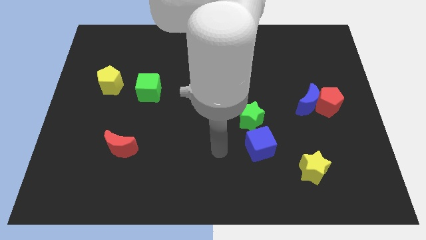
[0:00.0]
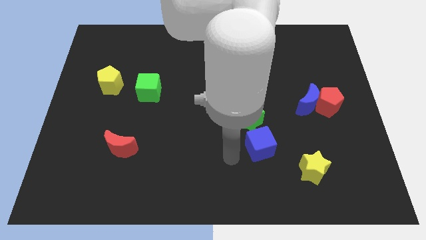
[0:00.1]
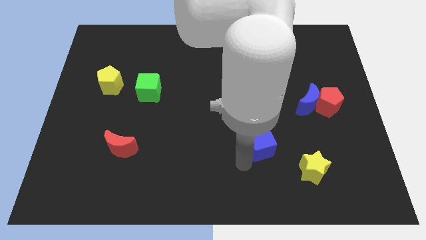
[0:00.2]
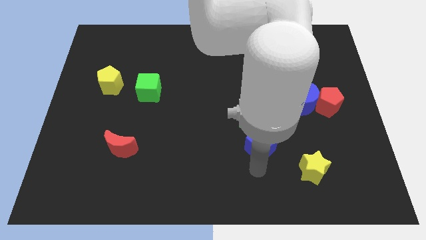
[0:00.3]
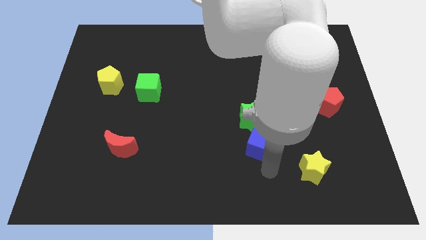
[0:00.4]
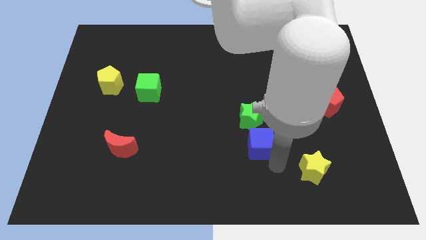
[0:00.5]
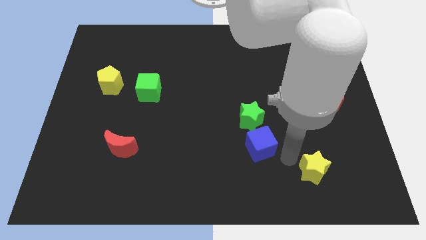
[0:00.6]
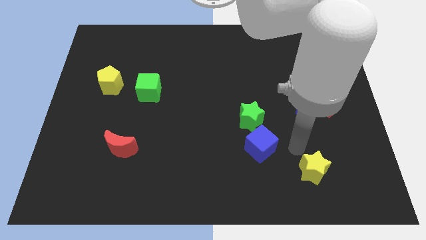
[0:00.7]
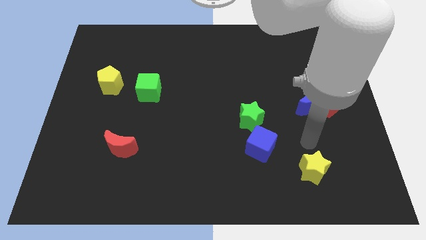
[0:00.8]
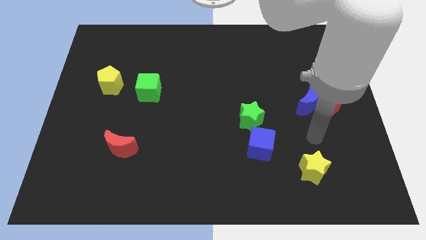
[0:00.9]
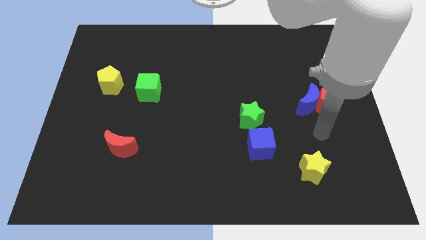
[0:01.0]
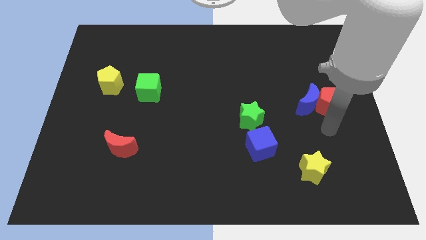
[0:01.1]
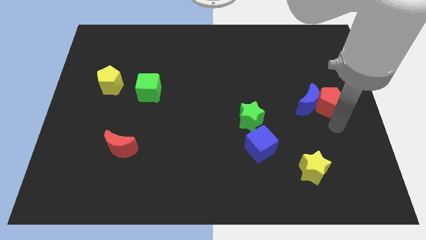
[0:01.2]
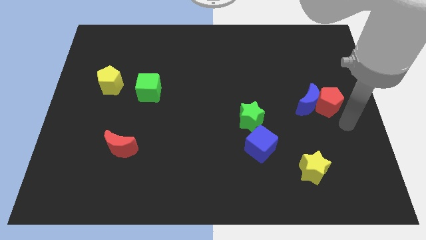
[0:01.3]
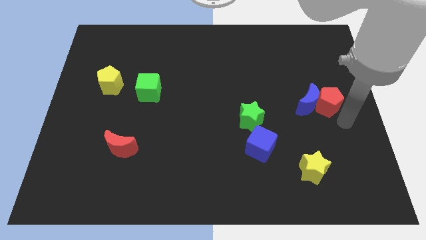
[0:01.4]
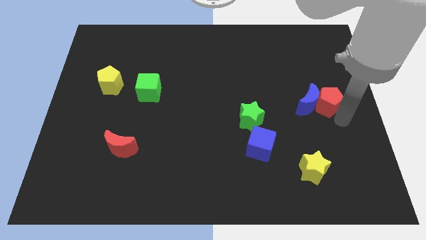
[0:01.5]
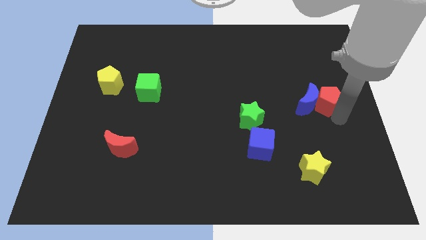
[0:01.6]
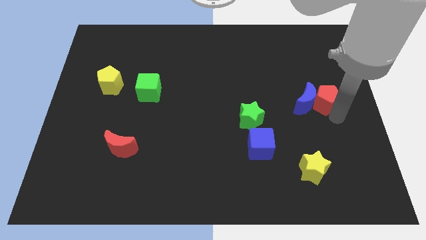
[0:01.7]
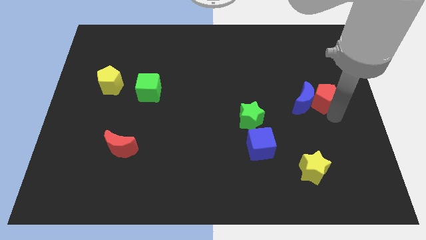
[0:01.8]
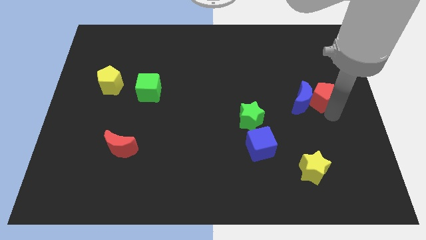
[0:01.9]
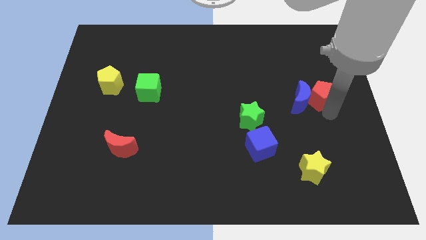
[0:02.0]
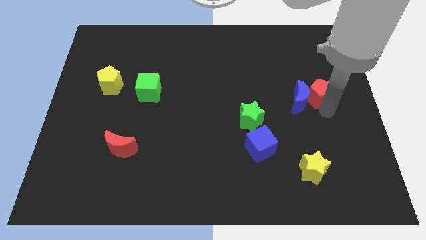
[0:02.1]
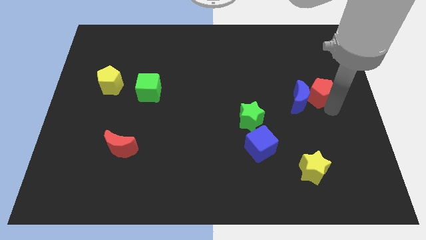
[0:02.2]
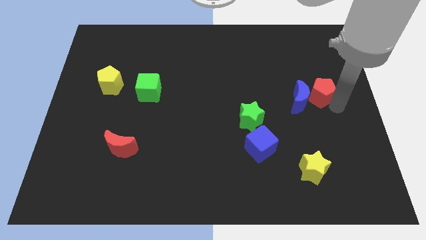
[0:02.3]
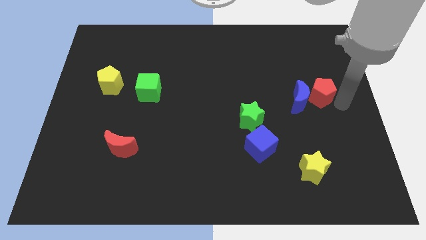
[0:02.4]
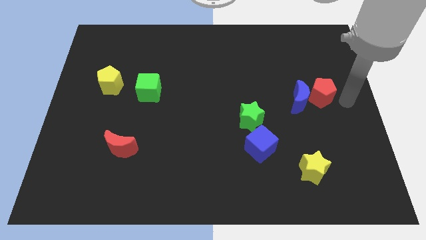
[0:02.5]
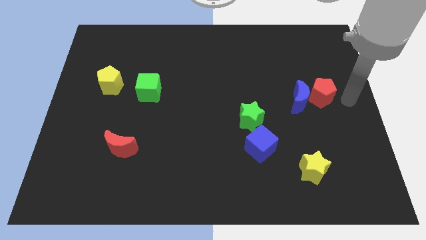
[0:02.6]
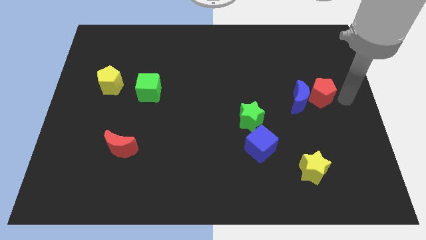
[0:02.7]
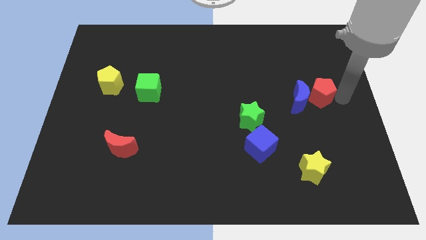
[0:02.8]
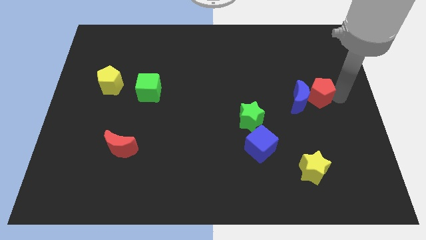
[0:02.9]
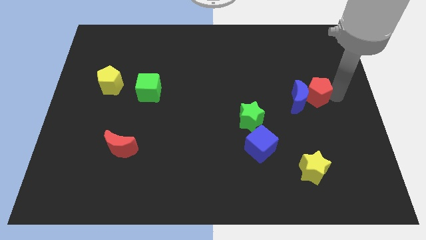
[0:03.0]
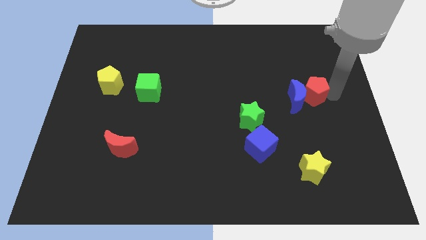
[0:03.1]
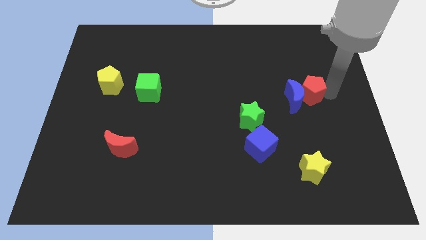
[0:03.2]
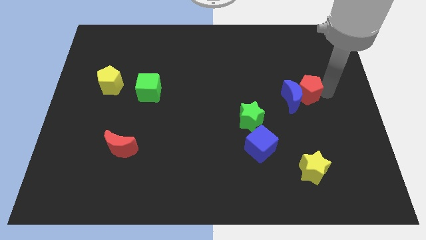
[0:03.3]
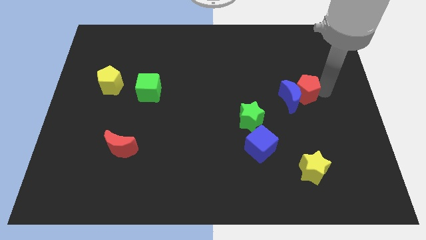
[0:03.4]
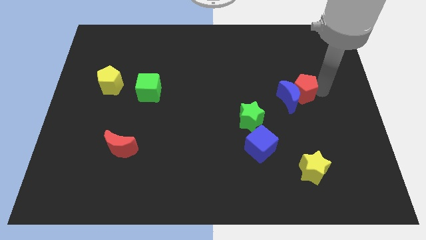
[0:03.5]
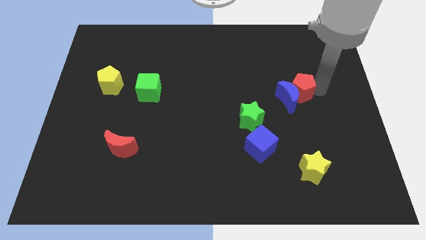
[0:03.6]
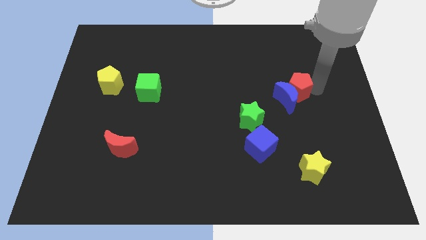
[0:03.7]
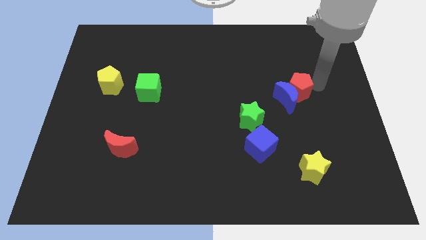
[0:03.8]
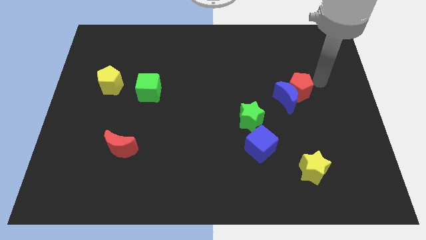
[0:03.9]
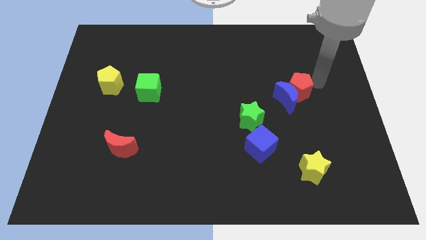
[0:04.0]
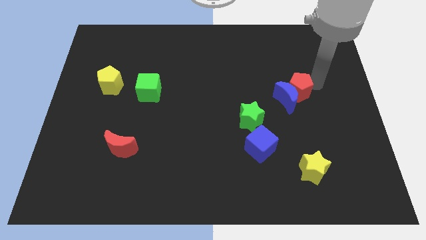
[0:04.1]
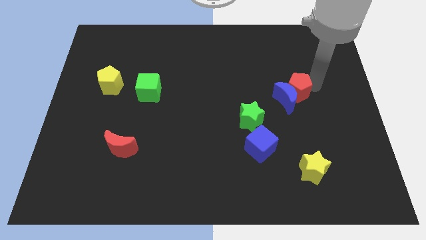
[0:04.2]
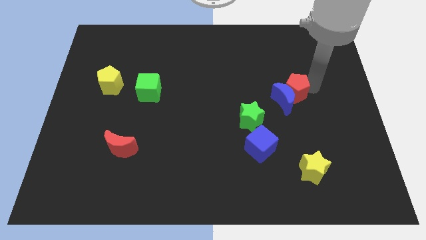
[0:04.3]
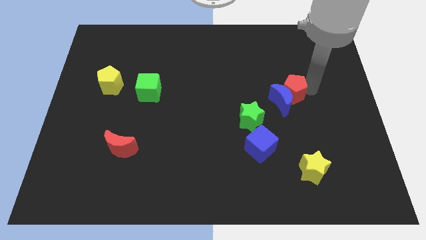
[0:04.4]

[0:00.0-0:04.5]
slightly slide the red pentagon to the left

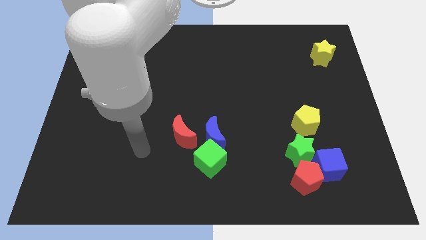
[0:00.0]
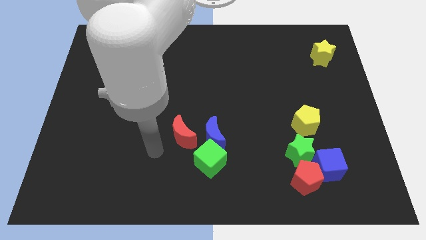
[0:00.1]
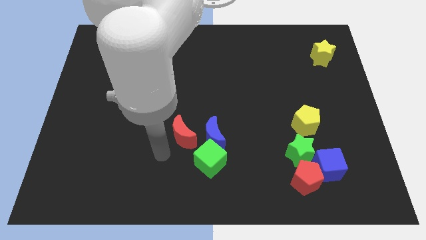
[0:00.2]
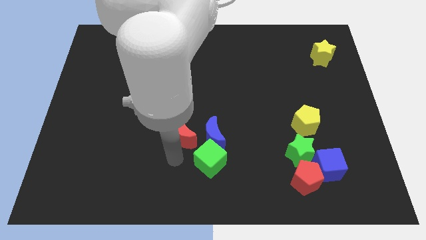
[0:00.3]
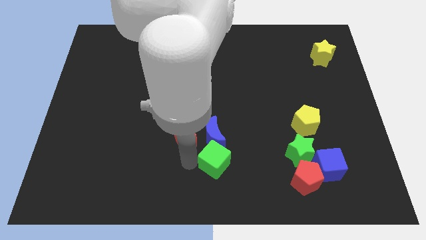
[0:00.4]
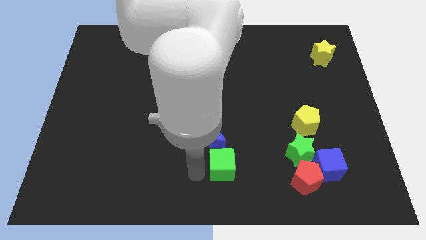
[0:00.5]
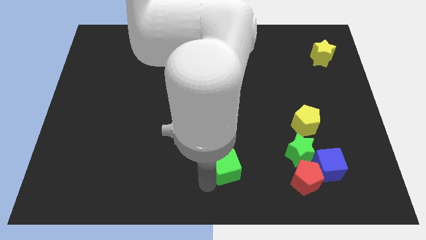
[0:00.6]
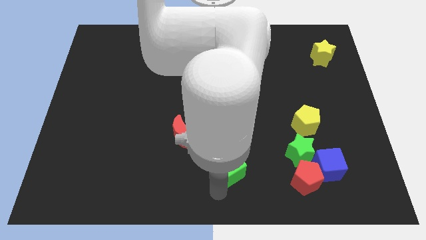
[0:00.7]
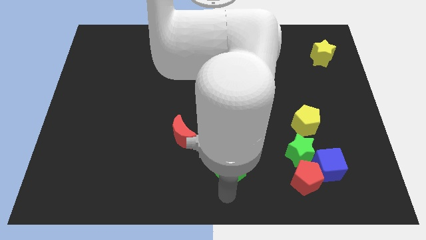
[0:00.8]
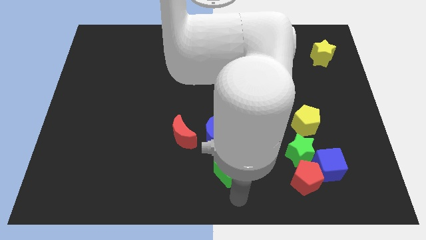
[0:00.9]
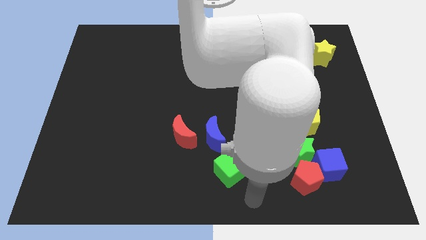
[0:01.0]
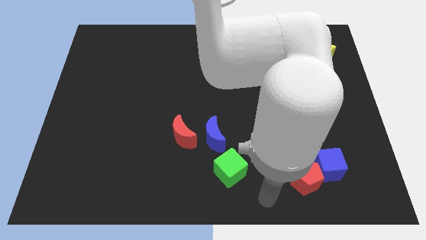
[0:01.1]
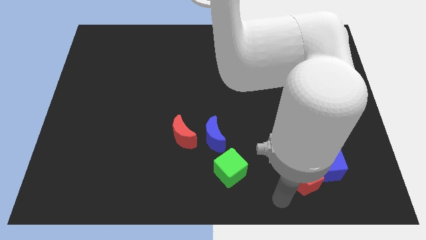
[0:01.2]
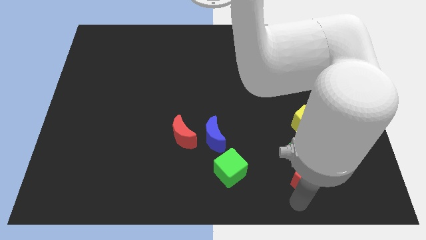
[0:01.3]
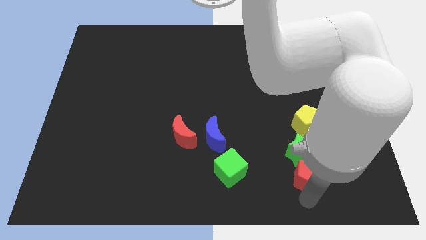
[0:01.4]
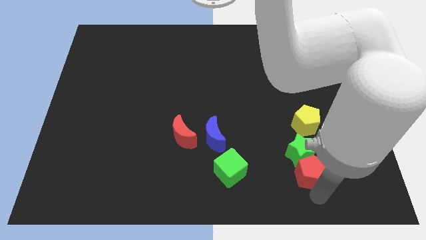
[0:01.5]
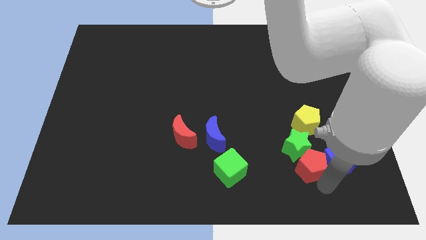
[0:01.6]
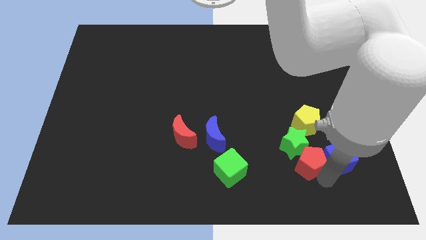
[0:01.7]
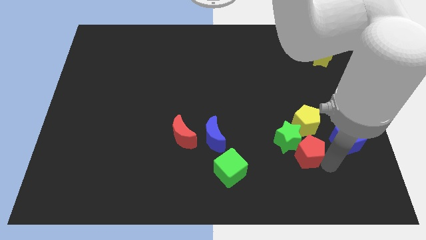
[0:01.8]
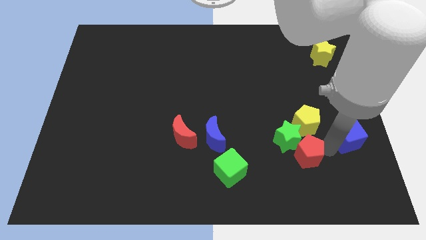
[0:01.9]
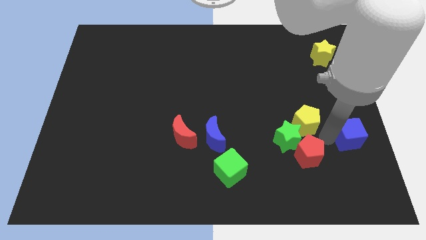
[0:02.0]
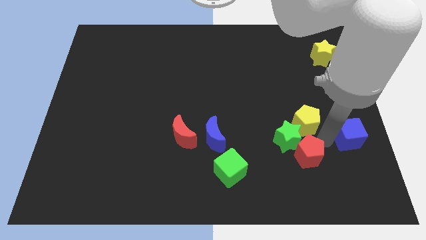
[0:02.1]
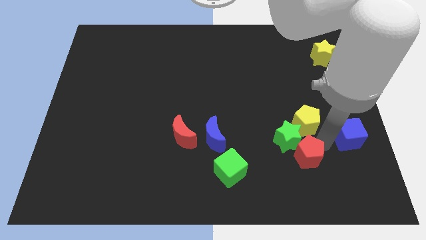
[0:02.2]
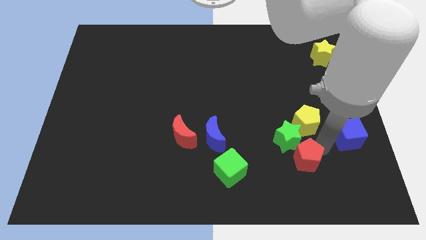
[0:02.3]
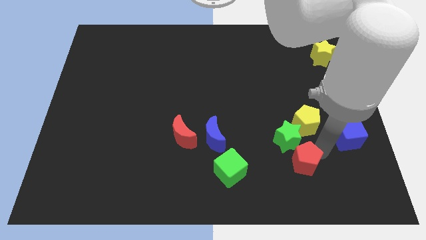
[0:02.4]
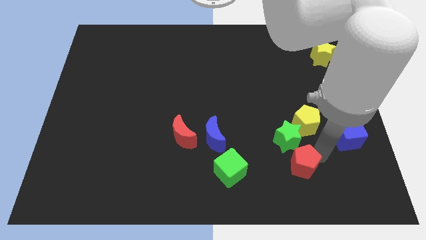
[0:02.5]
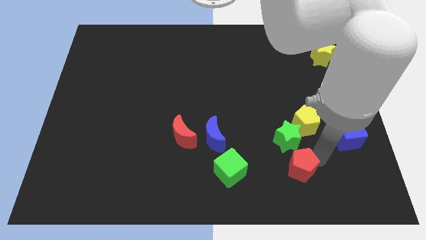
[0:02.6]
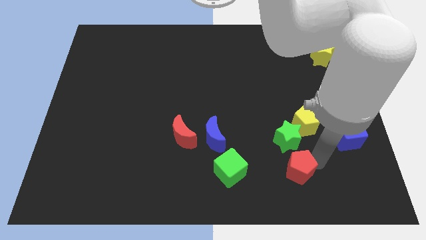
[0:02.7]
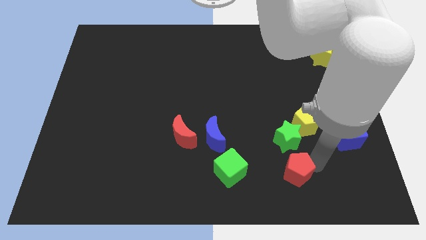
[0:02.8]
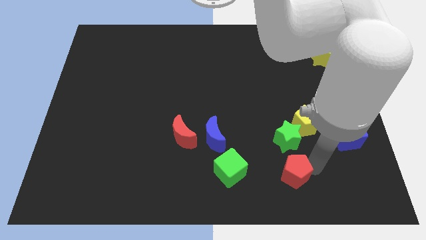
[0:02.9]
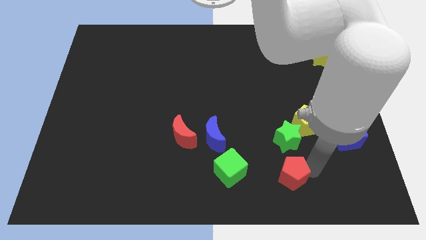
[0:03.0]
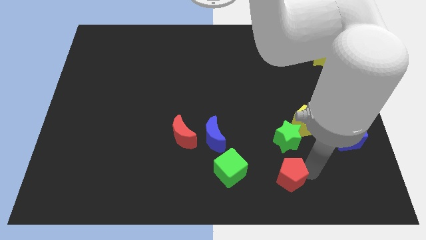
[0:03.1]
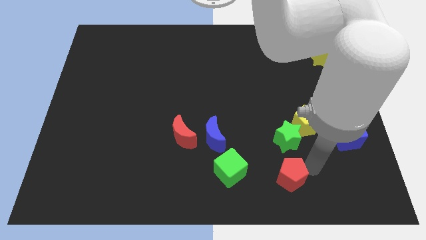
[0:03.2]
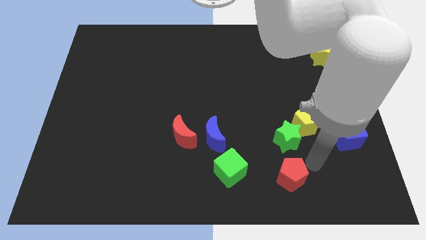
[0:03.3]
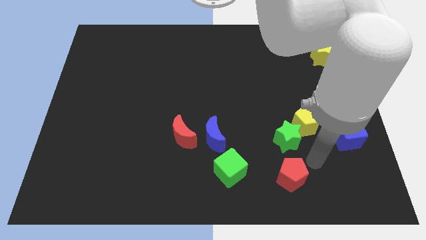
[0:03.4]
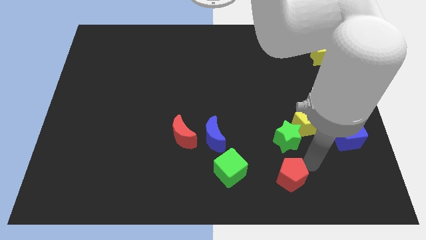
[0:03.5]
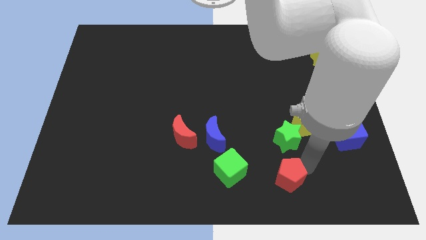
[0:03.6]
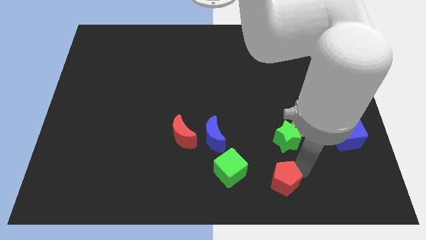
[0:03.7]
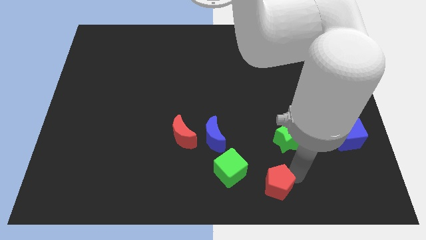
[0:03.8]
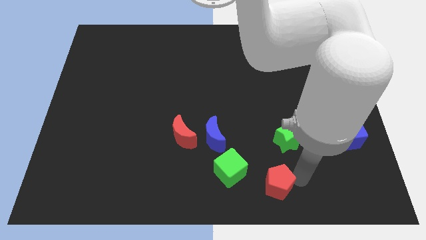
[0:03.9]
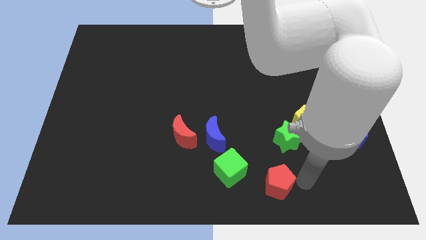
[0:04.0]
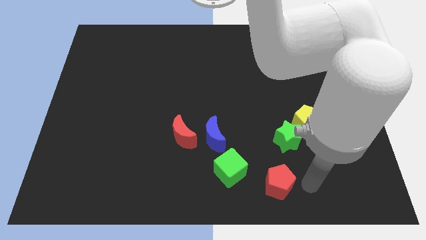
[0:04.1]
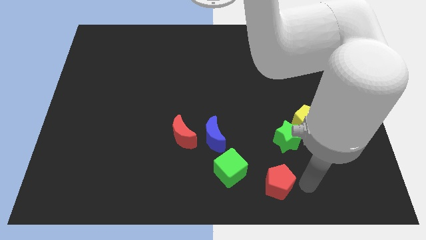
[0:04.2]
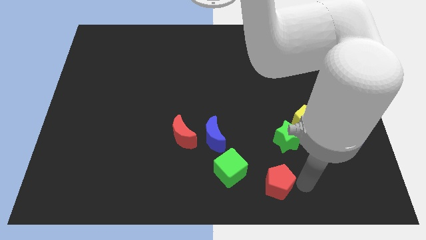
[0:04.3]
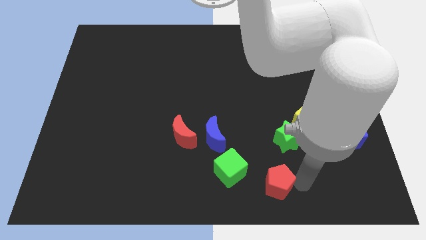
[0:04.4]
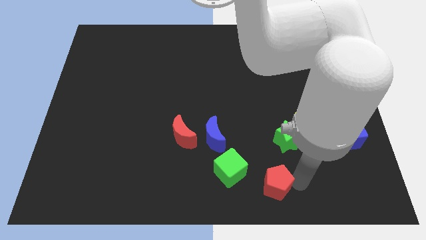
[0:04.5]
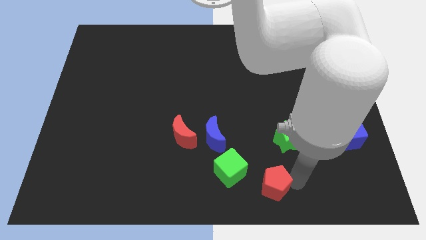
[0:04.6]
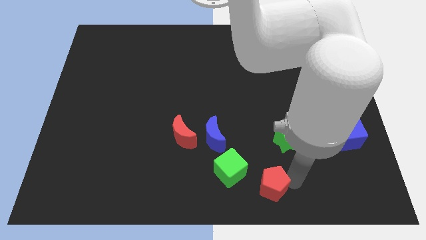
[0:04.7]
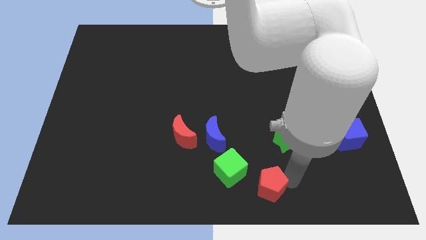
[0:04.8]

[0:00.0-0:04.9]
push the red pentagon left a bit
